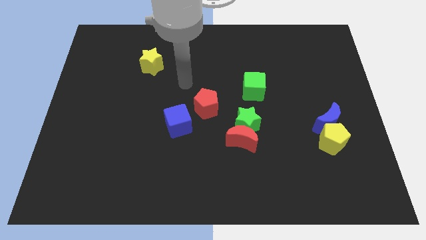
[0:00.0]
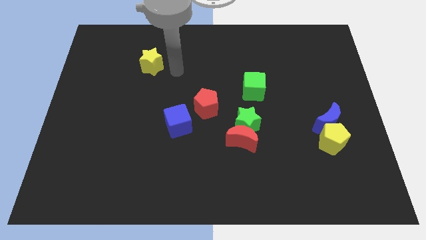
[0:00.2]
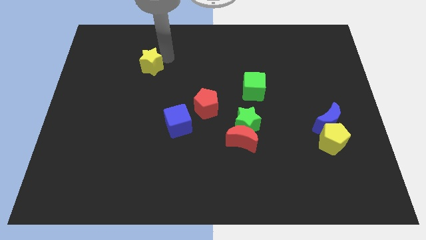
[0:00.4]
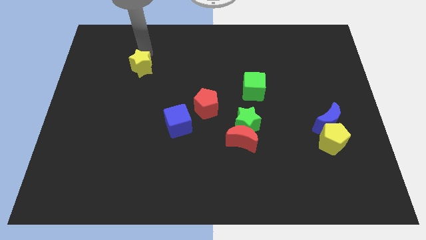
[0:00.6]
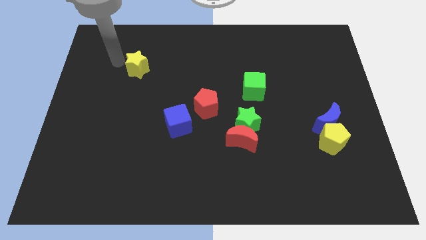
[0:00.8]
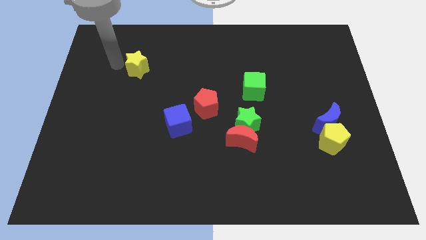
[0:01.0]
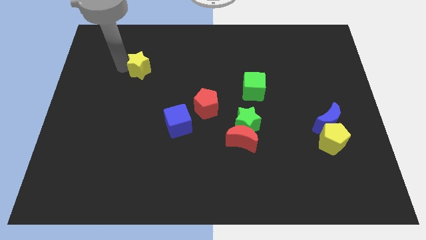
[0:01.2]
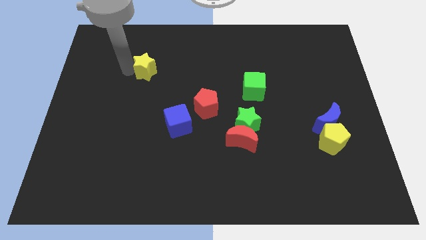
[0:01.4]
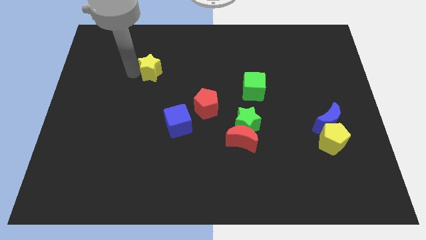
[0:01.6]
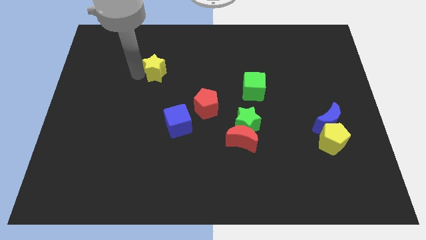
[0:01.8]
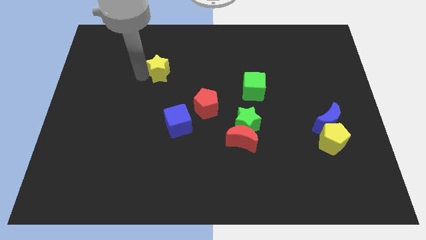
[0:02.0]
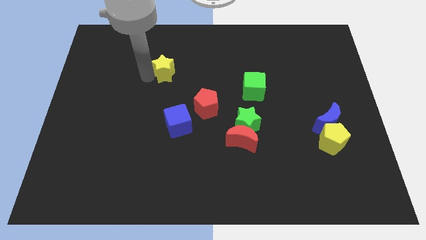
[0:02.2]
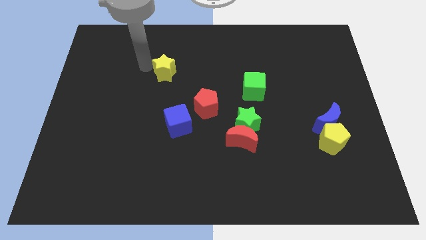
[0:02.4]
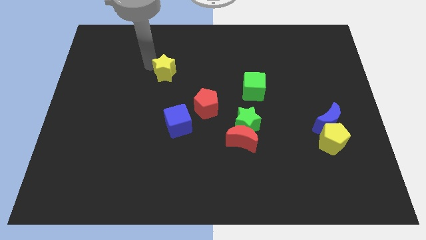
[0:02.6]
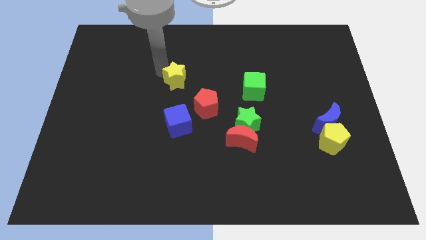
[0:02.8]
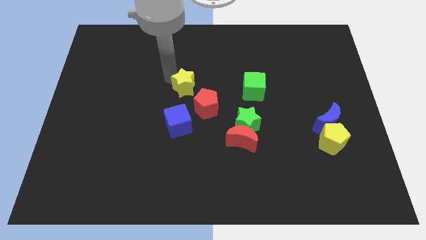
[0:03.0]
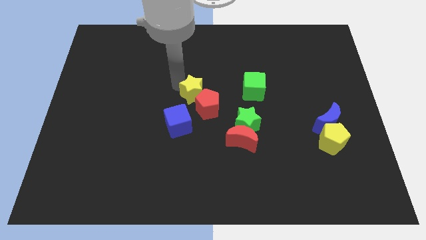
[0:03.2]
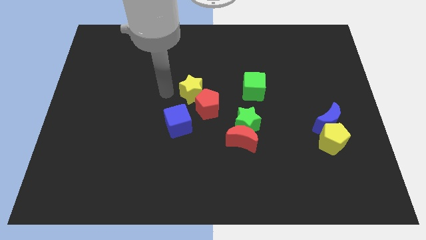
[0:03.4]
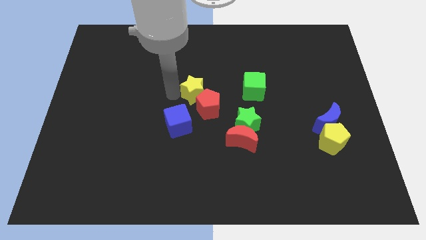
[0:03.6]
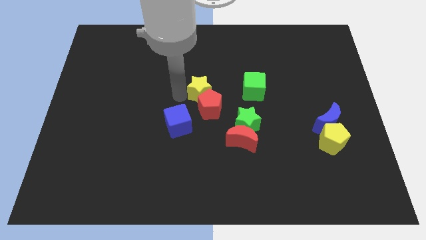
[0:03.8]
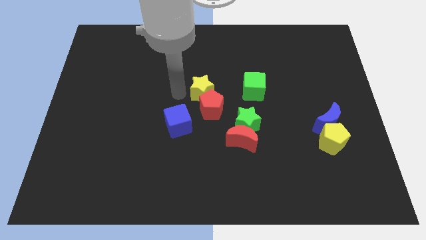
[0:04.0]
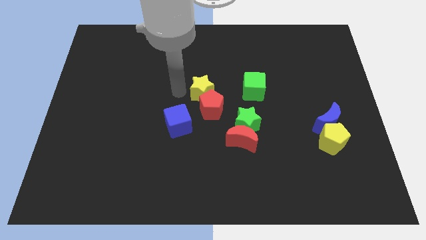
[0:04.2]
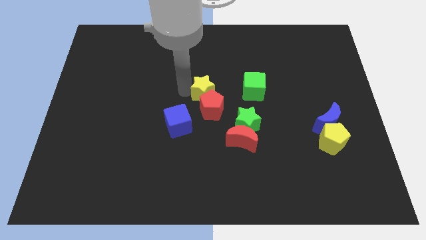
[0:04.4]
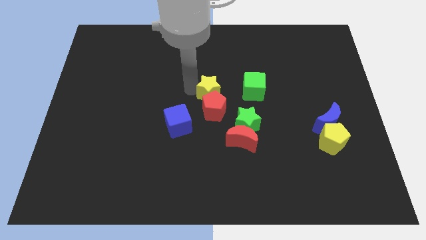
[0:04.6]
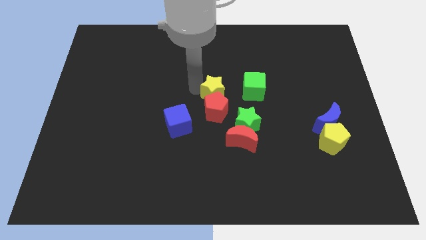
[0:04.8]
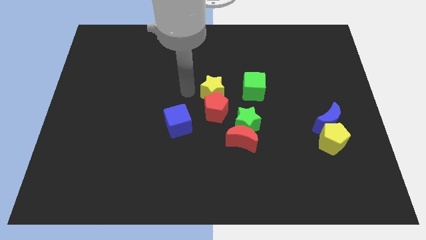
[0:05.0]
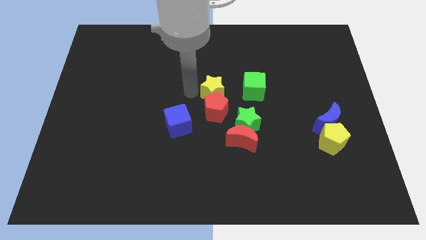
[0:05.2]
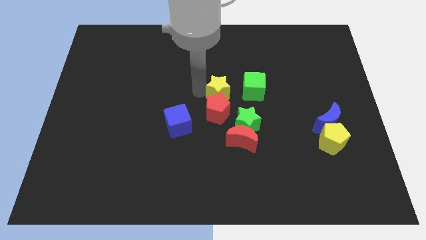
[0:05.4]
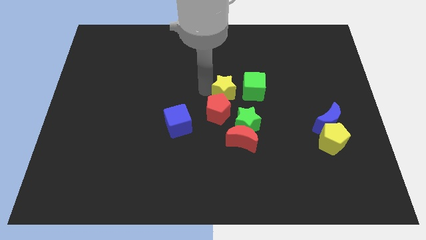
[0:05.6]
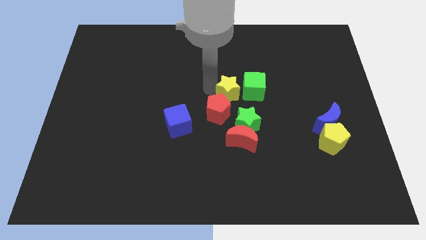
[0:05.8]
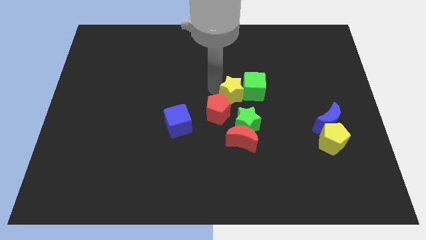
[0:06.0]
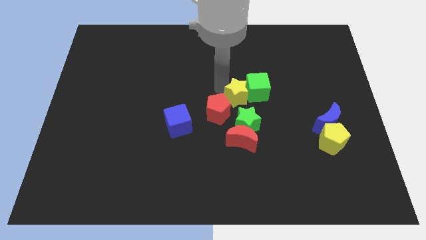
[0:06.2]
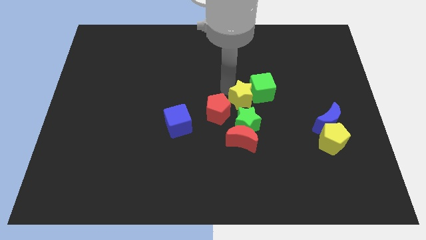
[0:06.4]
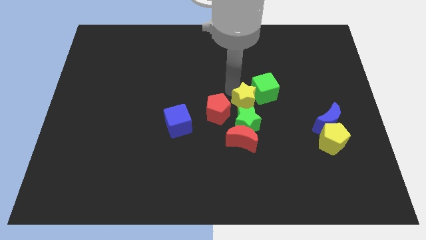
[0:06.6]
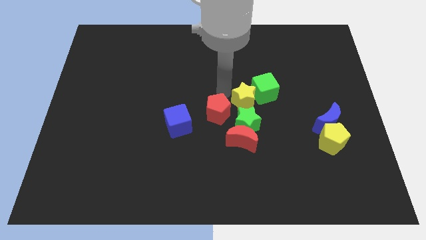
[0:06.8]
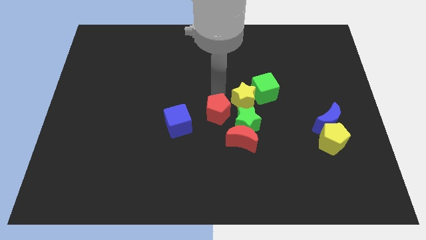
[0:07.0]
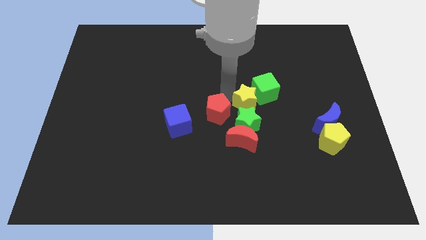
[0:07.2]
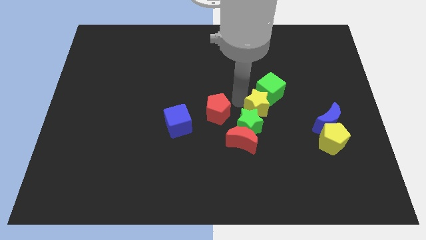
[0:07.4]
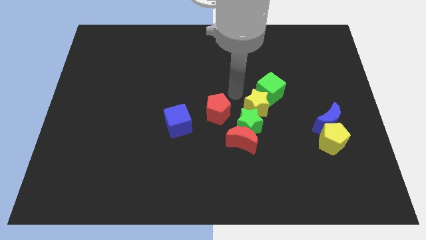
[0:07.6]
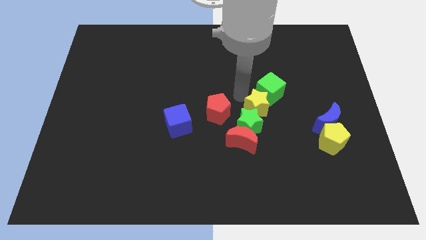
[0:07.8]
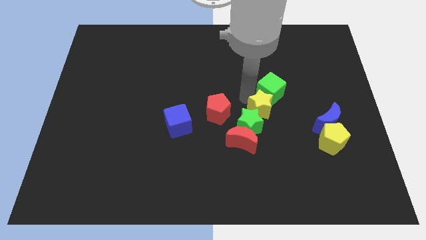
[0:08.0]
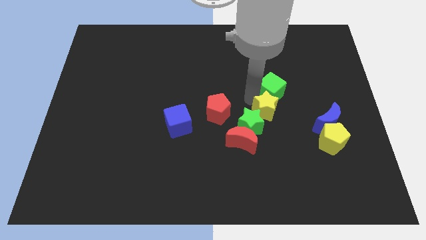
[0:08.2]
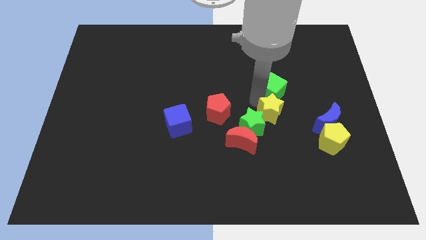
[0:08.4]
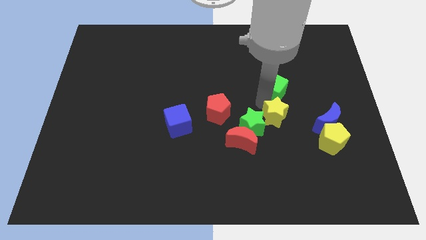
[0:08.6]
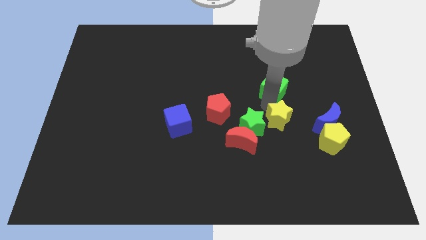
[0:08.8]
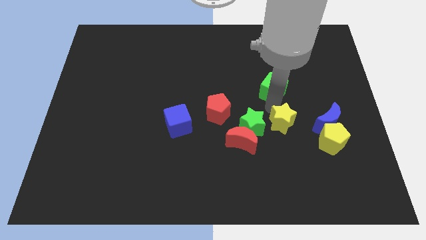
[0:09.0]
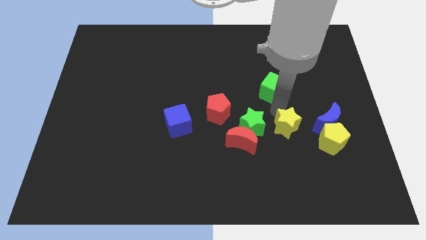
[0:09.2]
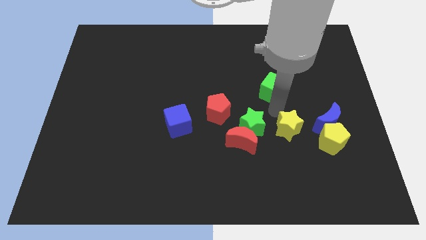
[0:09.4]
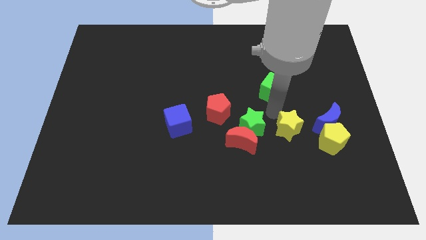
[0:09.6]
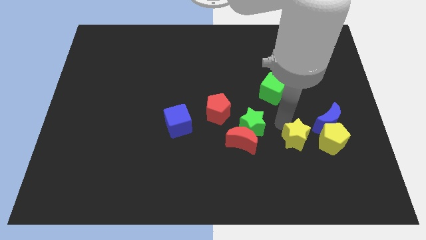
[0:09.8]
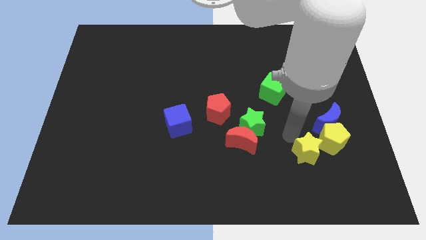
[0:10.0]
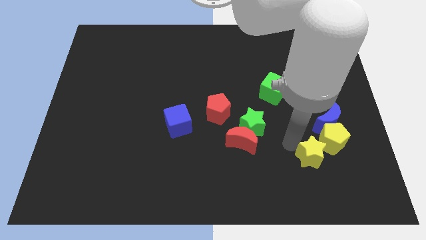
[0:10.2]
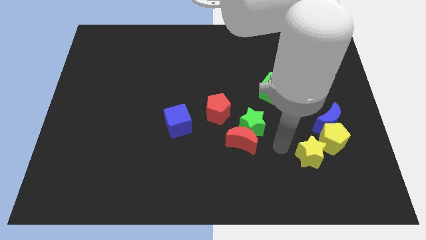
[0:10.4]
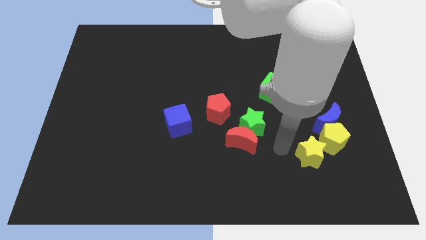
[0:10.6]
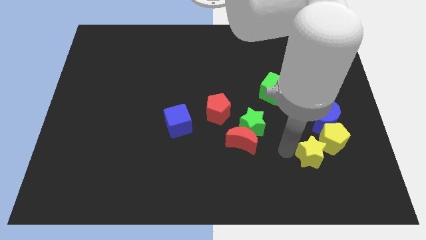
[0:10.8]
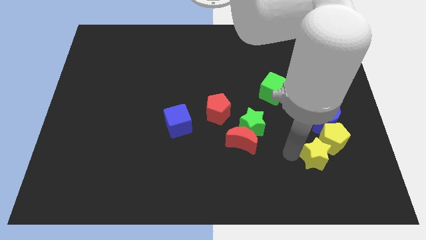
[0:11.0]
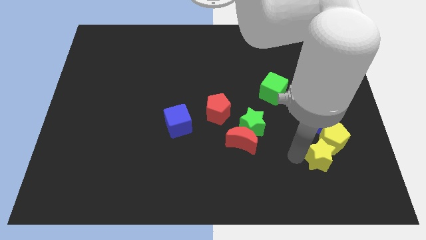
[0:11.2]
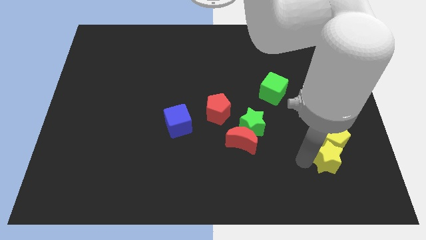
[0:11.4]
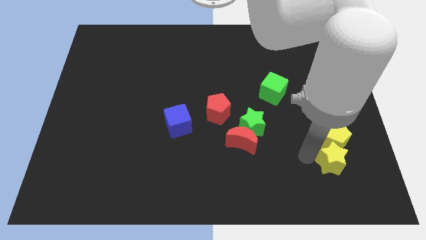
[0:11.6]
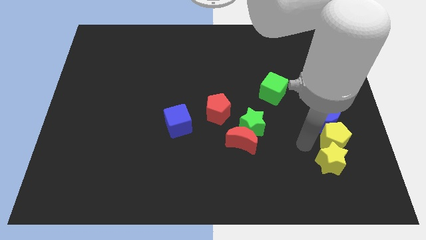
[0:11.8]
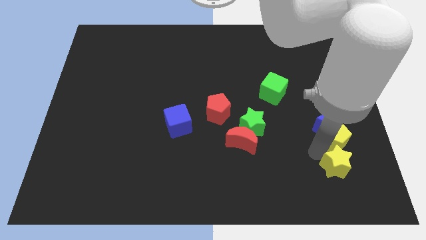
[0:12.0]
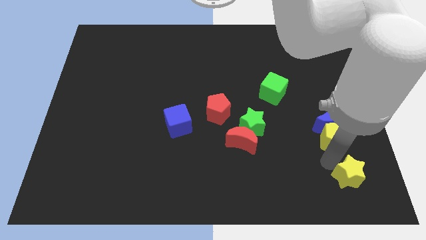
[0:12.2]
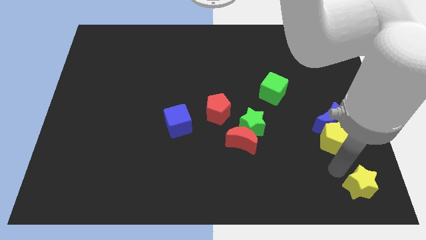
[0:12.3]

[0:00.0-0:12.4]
move the yellow star to the bottom right
